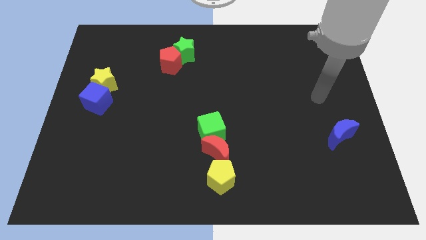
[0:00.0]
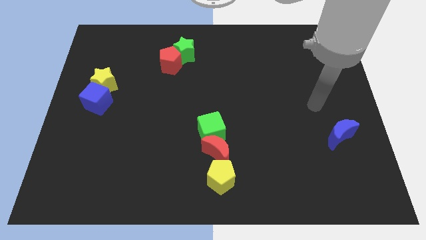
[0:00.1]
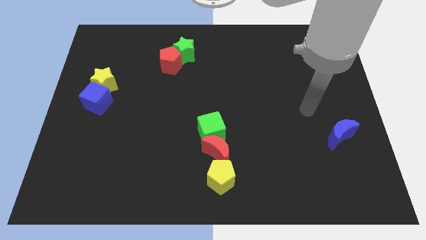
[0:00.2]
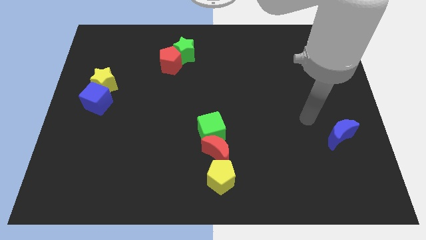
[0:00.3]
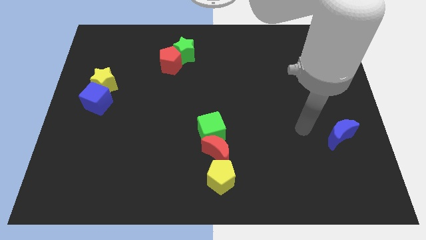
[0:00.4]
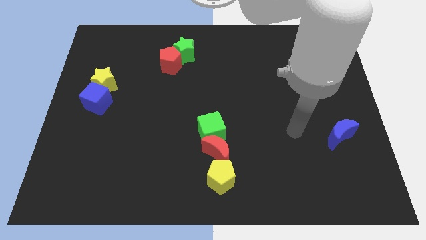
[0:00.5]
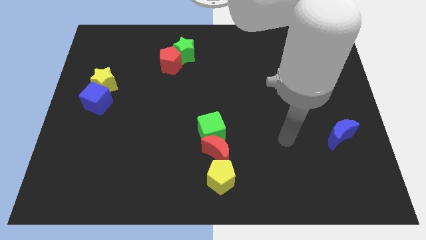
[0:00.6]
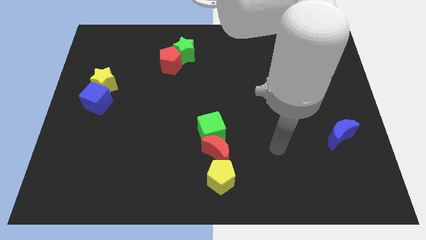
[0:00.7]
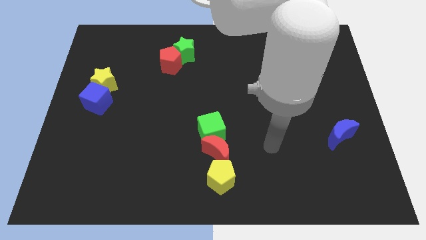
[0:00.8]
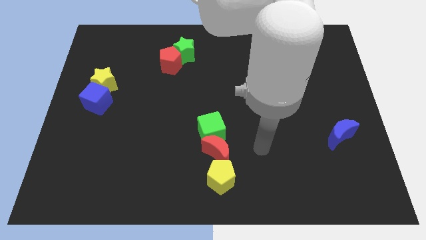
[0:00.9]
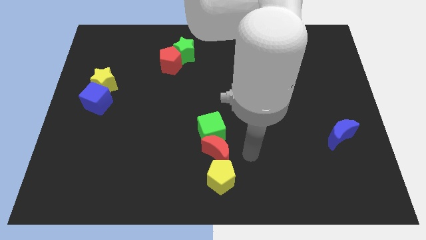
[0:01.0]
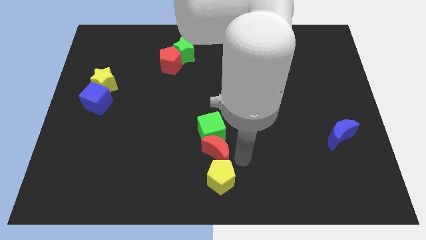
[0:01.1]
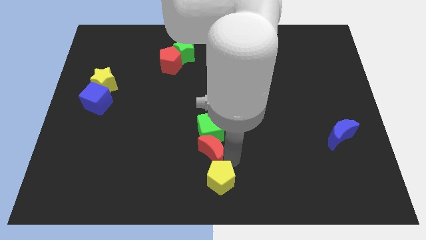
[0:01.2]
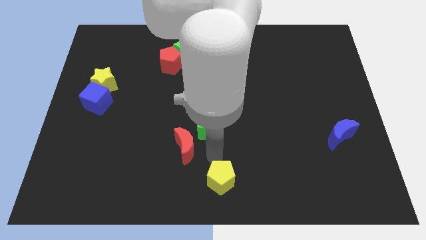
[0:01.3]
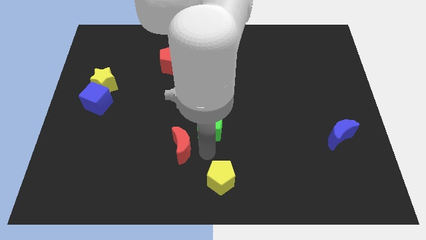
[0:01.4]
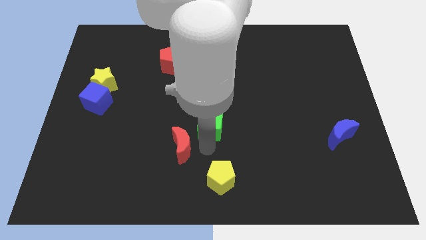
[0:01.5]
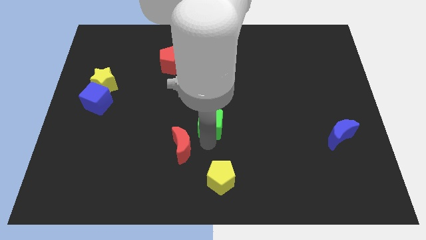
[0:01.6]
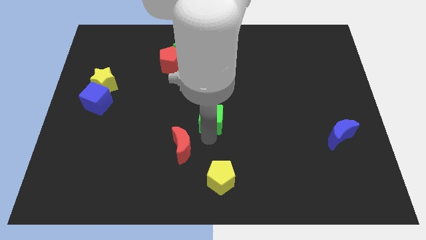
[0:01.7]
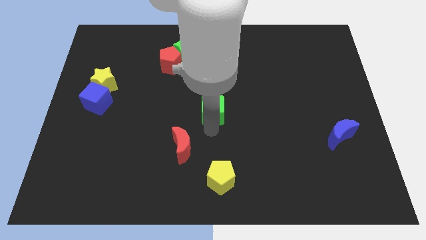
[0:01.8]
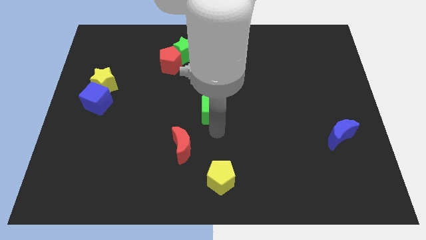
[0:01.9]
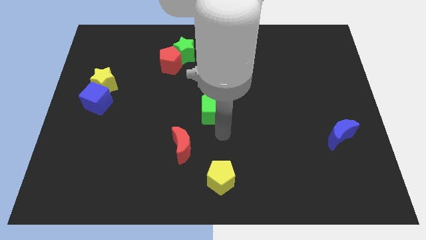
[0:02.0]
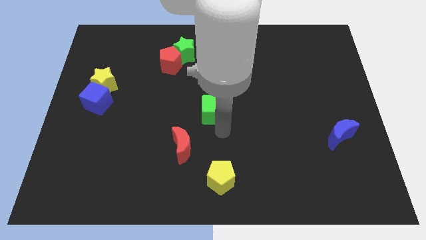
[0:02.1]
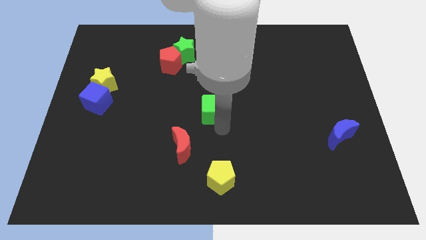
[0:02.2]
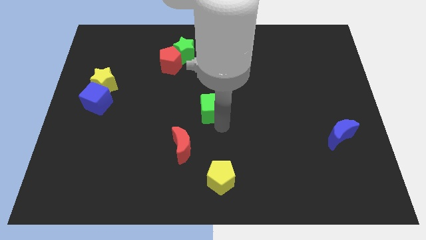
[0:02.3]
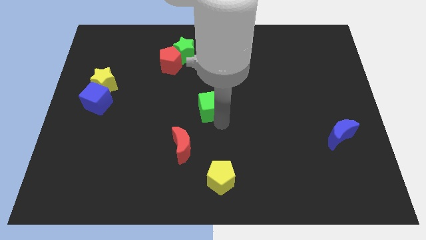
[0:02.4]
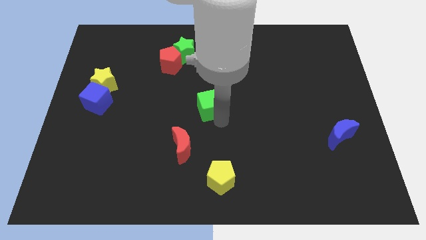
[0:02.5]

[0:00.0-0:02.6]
slightly move the green cube upwards

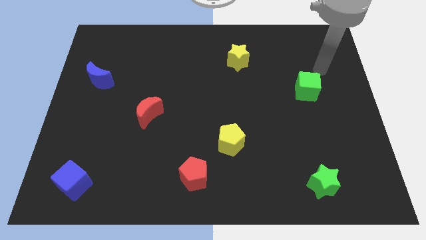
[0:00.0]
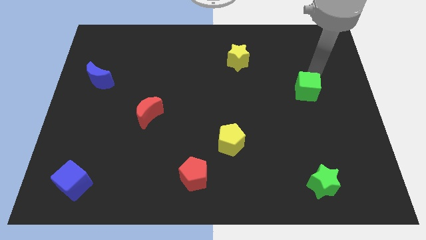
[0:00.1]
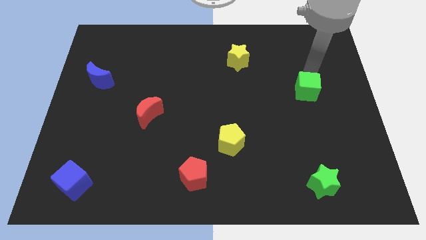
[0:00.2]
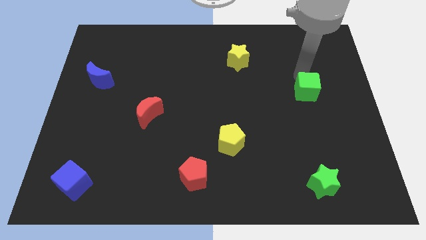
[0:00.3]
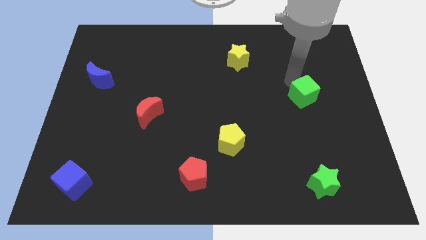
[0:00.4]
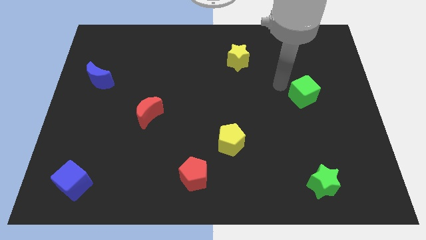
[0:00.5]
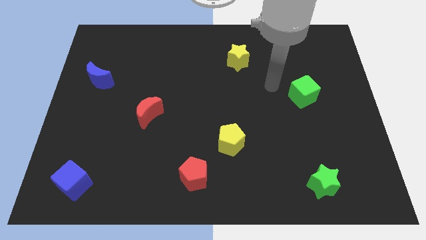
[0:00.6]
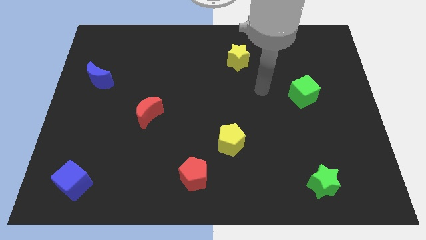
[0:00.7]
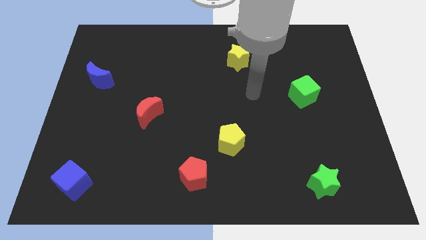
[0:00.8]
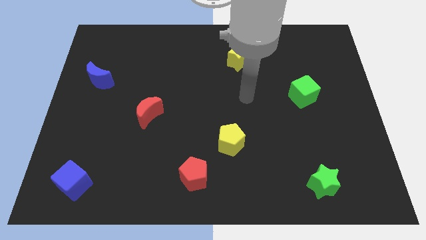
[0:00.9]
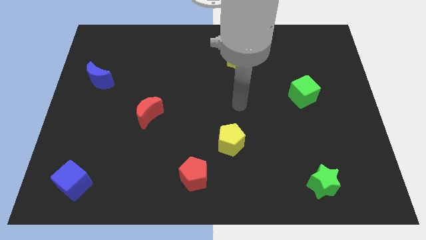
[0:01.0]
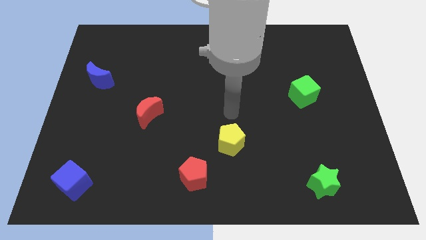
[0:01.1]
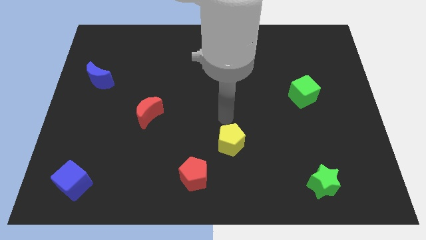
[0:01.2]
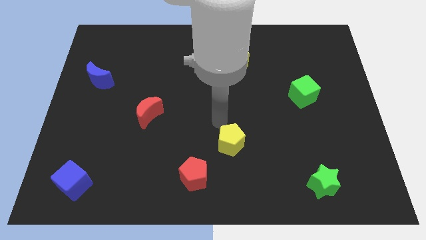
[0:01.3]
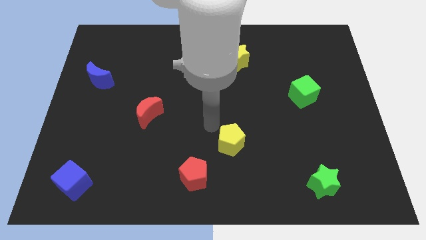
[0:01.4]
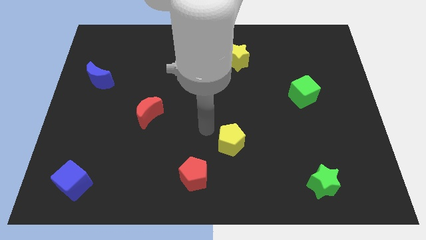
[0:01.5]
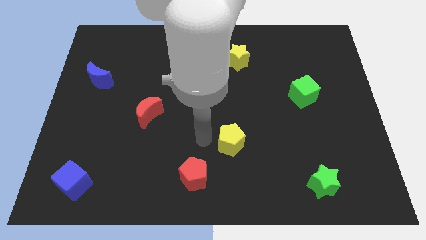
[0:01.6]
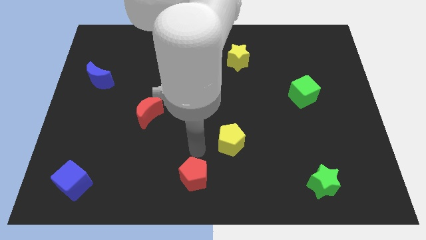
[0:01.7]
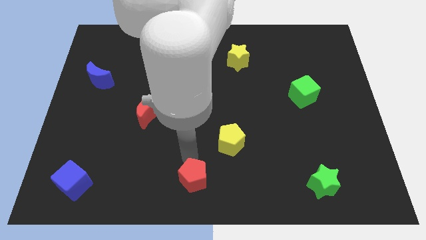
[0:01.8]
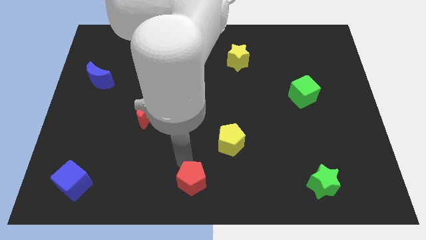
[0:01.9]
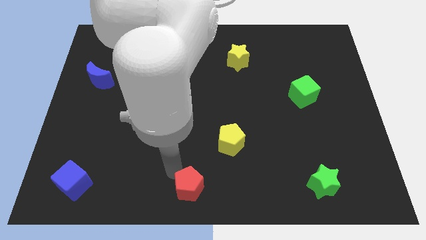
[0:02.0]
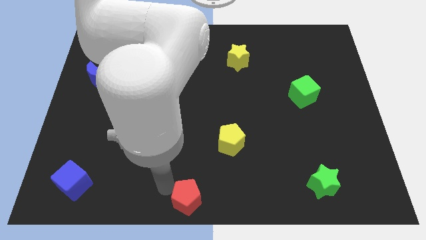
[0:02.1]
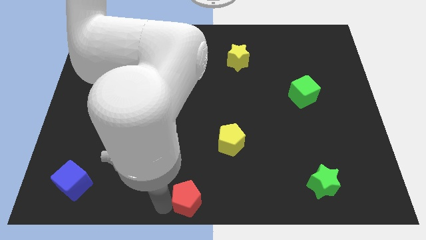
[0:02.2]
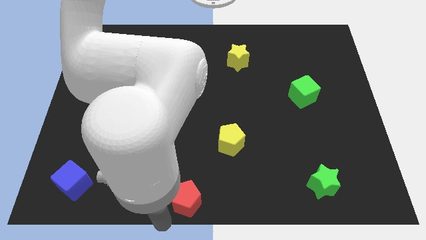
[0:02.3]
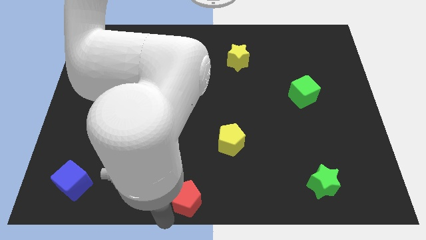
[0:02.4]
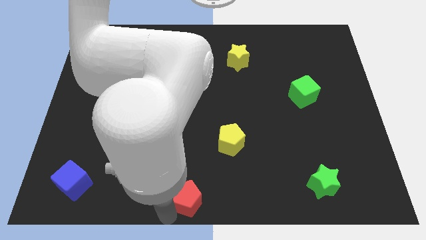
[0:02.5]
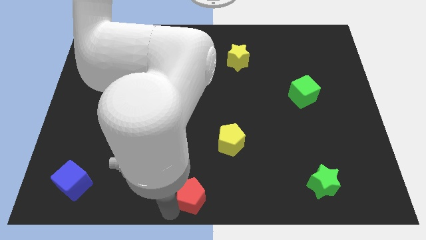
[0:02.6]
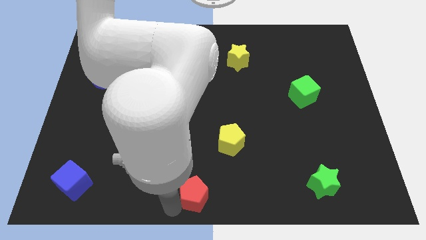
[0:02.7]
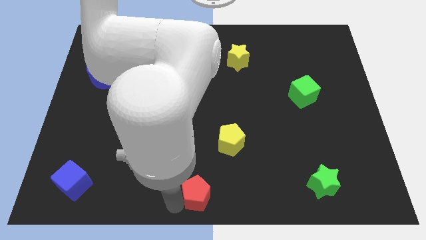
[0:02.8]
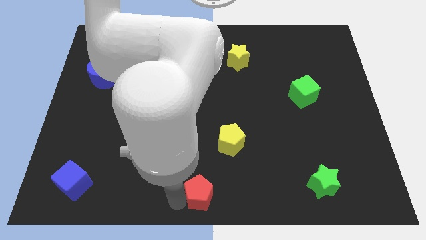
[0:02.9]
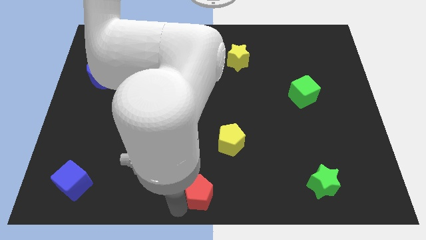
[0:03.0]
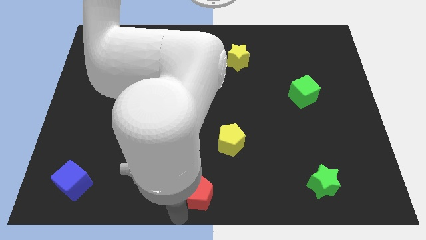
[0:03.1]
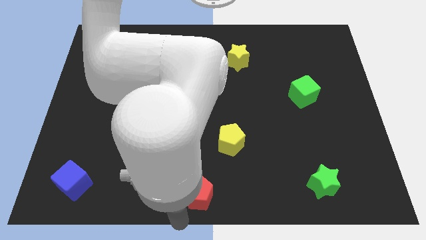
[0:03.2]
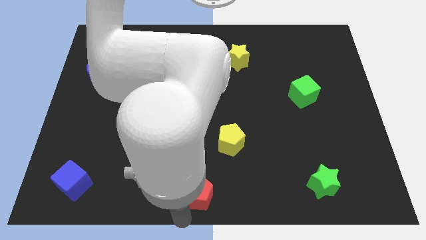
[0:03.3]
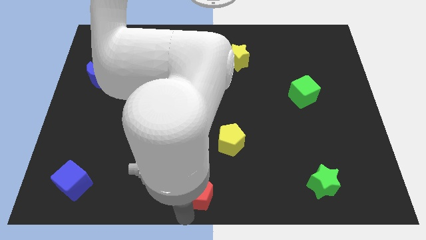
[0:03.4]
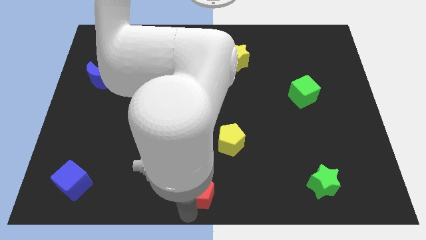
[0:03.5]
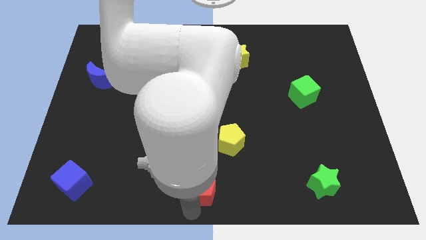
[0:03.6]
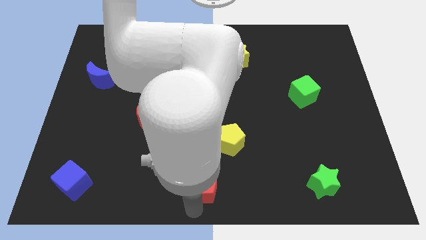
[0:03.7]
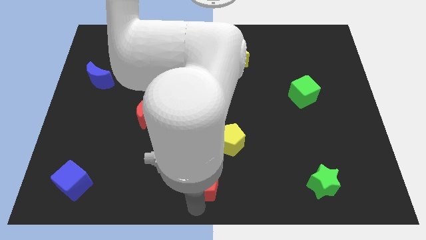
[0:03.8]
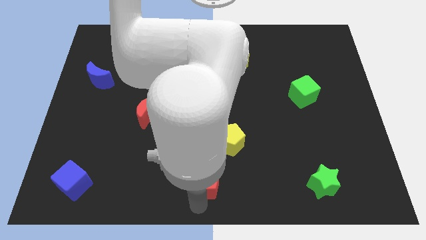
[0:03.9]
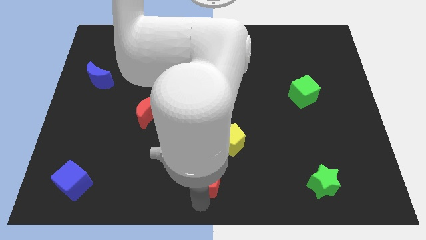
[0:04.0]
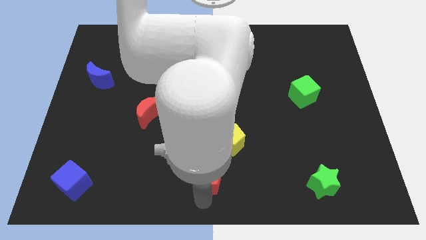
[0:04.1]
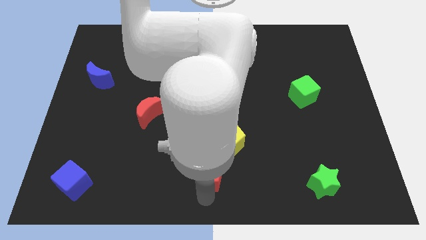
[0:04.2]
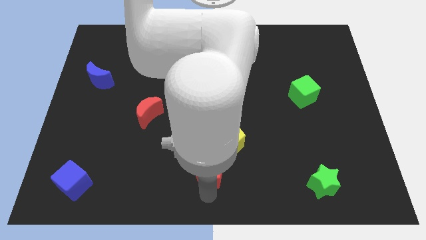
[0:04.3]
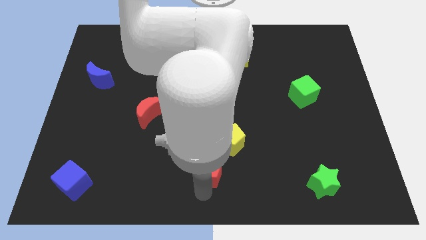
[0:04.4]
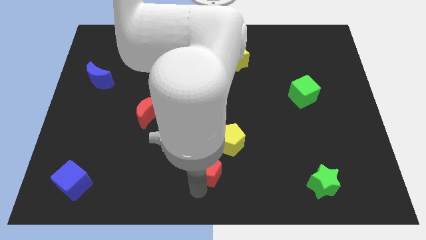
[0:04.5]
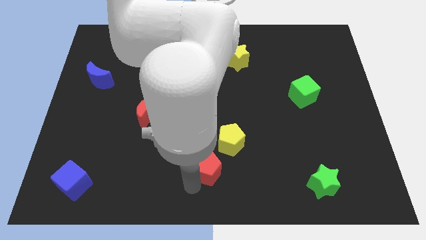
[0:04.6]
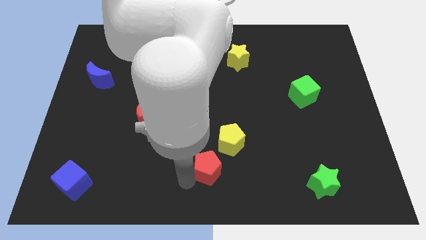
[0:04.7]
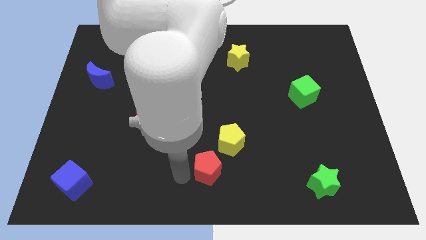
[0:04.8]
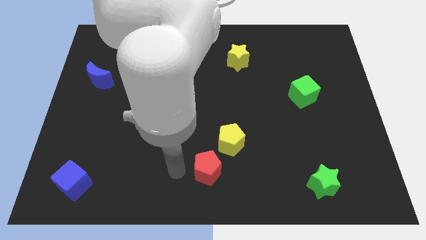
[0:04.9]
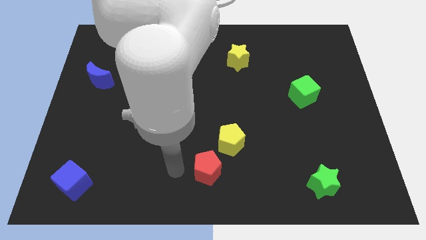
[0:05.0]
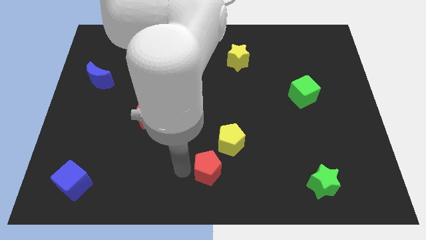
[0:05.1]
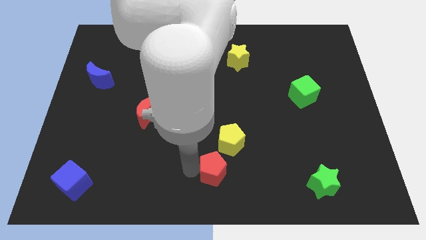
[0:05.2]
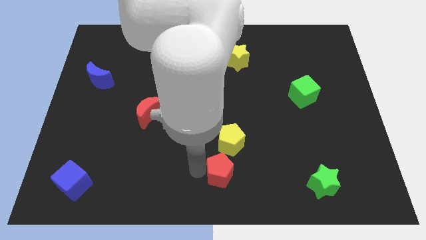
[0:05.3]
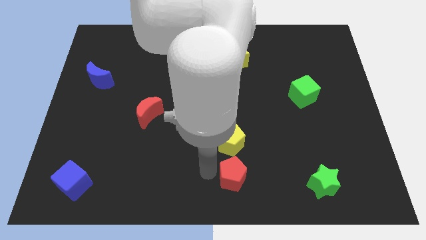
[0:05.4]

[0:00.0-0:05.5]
slightly slide the red pentagon to the right
